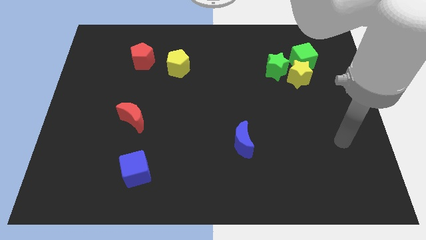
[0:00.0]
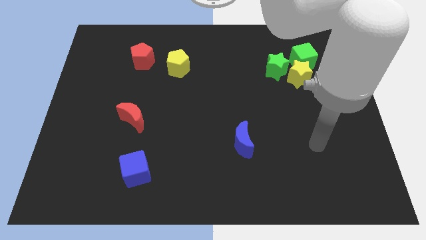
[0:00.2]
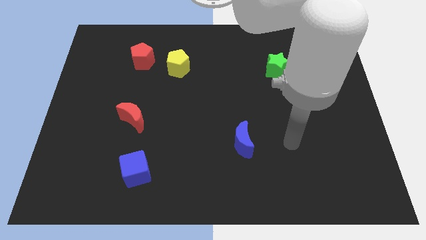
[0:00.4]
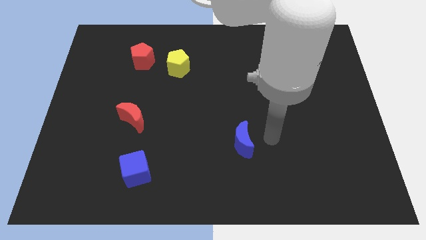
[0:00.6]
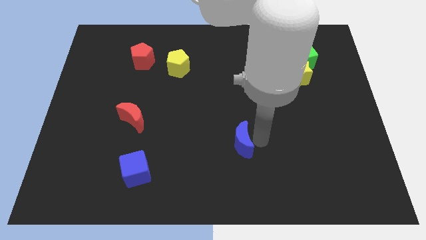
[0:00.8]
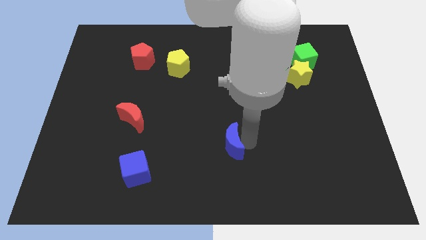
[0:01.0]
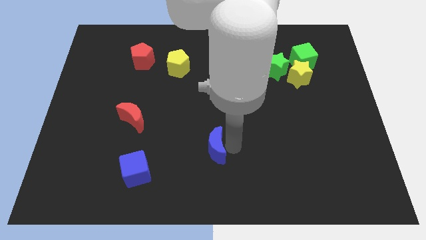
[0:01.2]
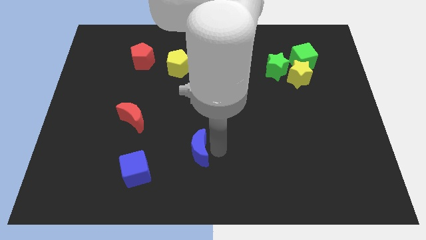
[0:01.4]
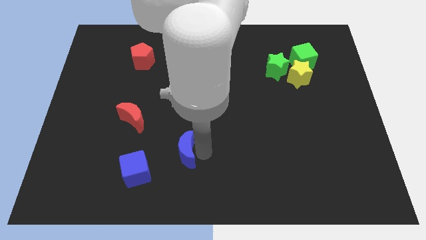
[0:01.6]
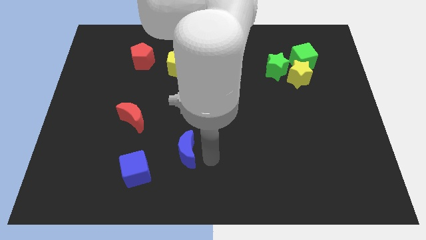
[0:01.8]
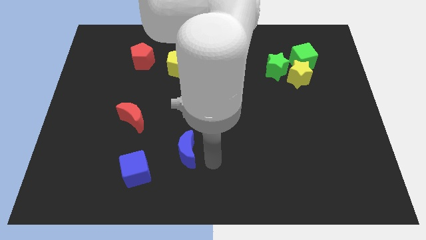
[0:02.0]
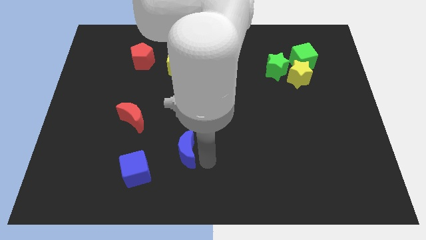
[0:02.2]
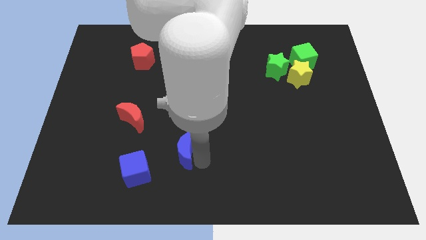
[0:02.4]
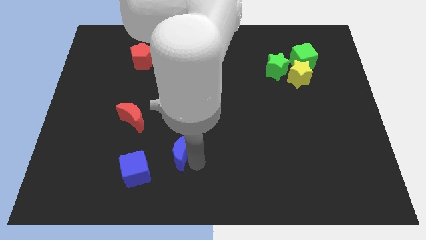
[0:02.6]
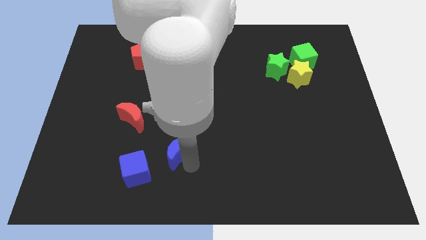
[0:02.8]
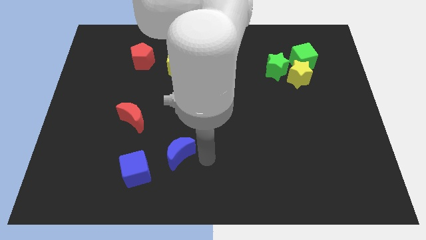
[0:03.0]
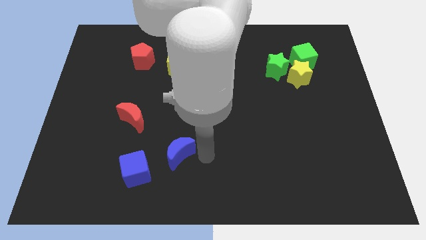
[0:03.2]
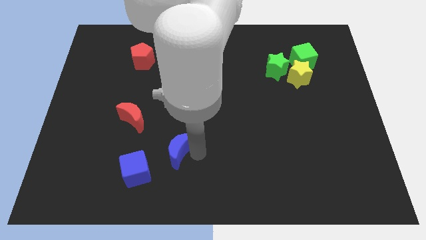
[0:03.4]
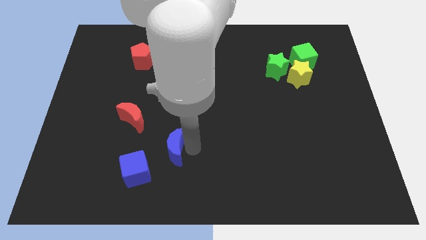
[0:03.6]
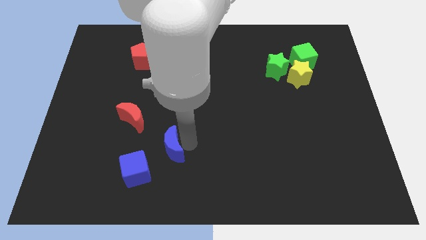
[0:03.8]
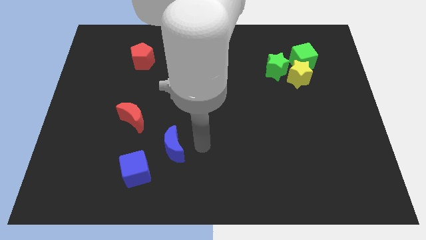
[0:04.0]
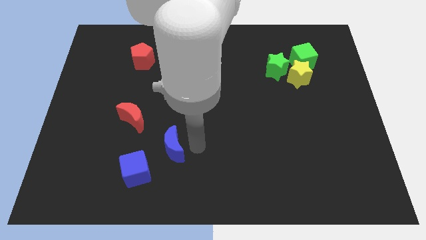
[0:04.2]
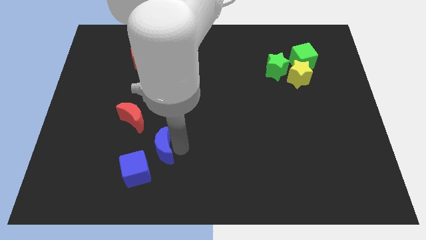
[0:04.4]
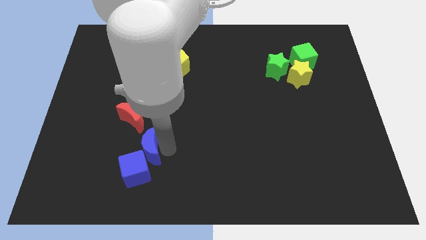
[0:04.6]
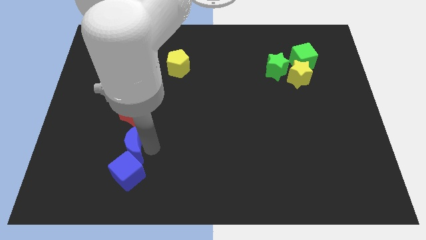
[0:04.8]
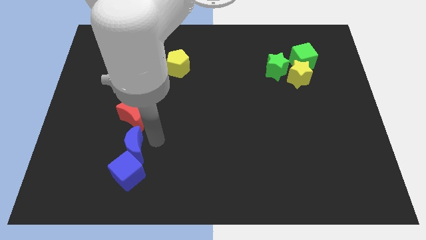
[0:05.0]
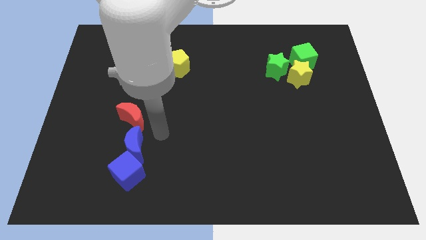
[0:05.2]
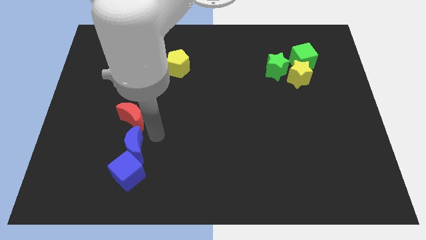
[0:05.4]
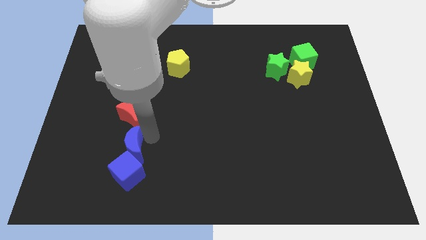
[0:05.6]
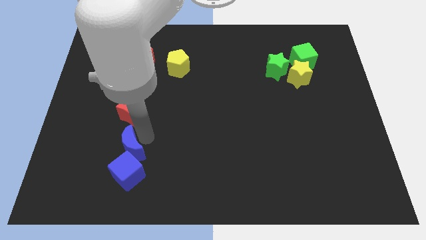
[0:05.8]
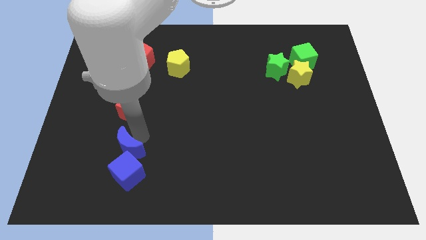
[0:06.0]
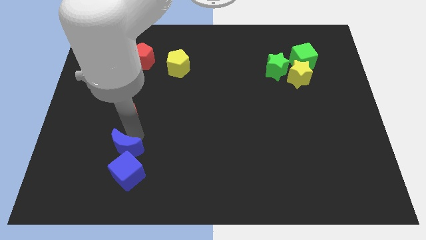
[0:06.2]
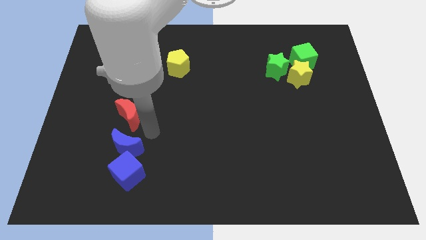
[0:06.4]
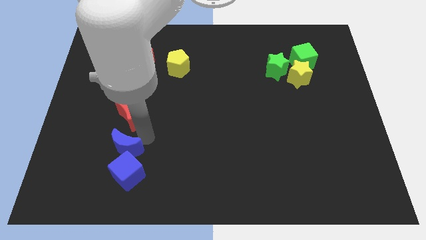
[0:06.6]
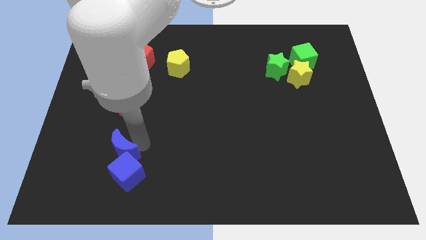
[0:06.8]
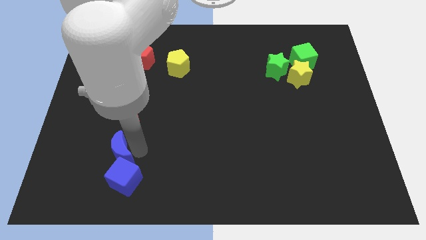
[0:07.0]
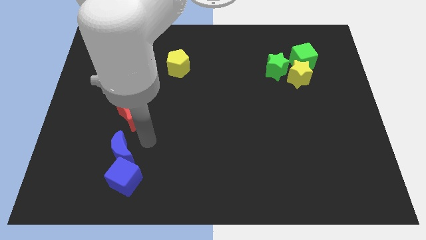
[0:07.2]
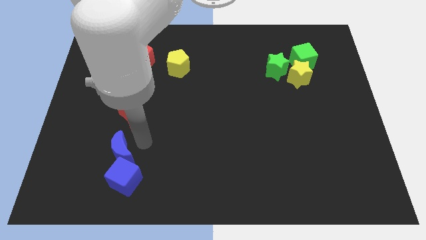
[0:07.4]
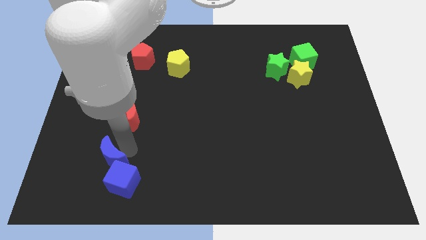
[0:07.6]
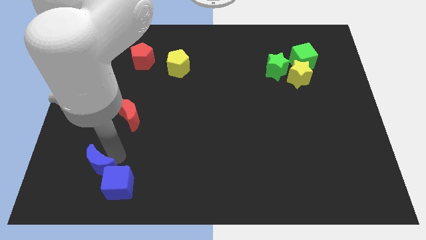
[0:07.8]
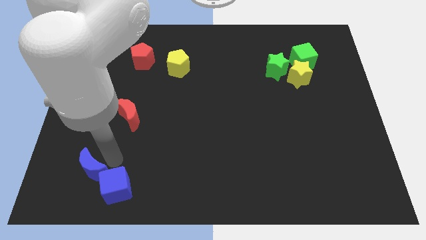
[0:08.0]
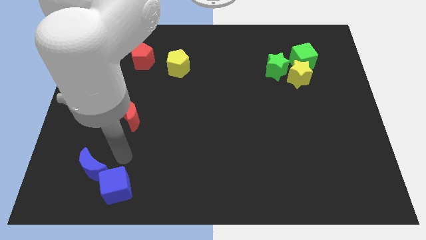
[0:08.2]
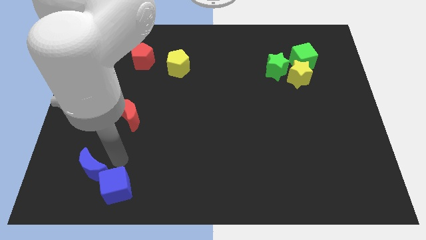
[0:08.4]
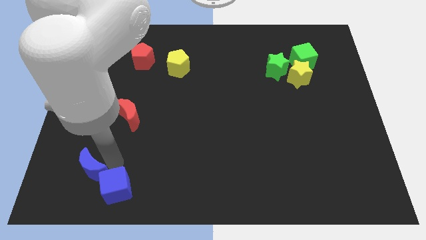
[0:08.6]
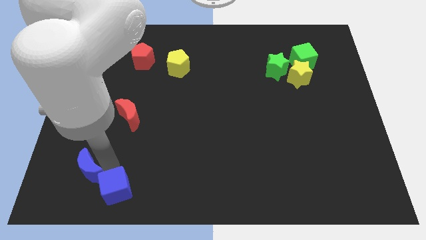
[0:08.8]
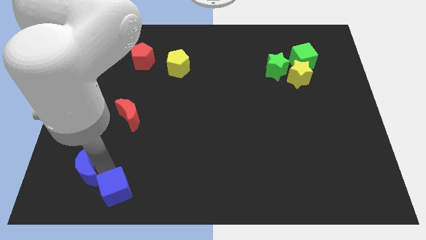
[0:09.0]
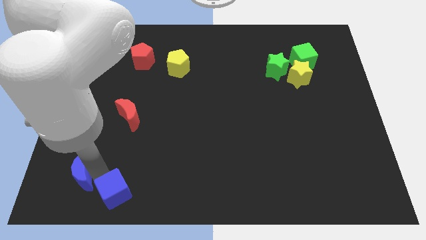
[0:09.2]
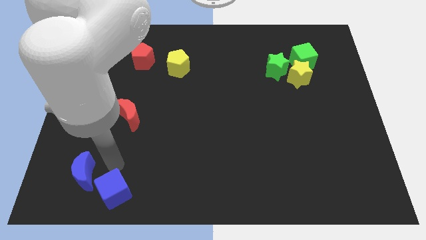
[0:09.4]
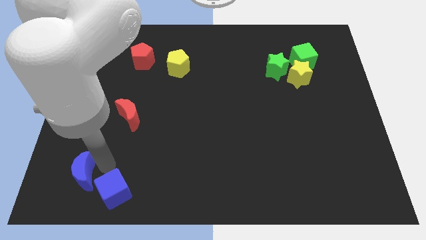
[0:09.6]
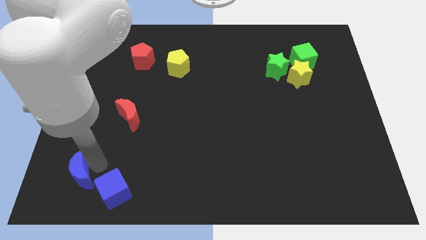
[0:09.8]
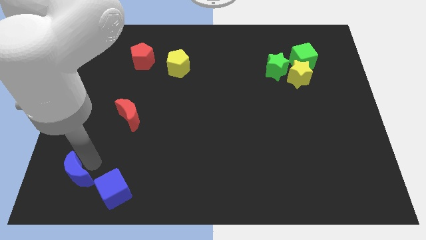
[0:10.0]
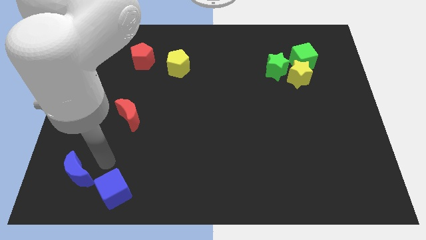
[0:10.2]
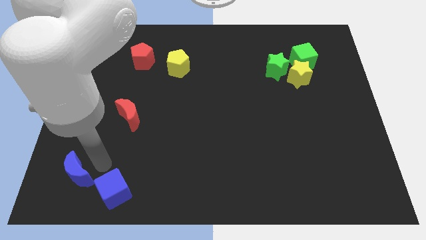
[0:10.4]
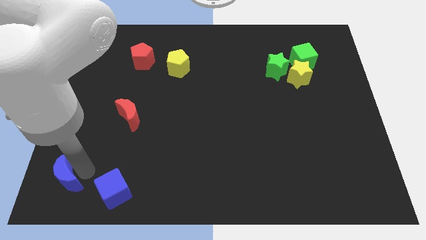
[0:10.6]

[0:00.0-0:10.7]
move the blue moon to the bottom left
